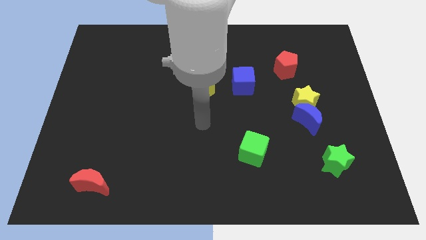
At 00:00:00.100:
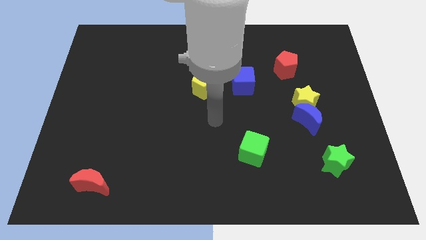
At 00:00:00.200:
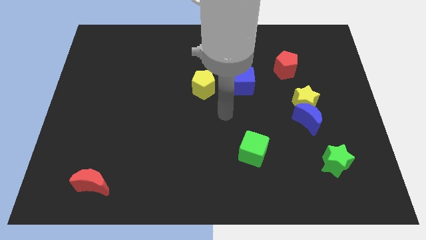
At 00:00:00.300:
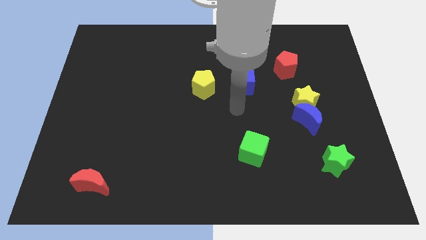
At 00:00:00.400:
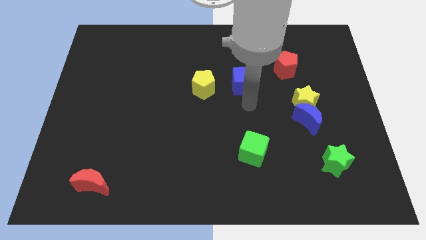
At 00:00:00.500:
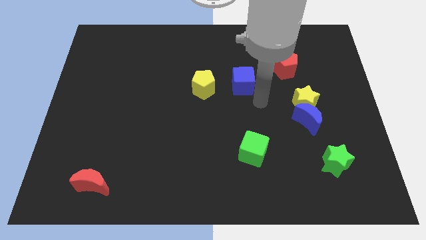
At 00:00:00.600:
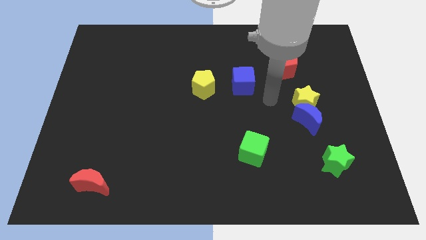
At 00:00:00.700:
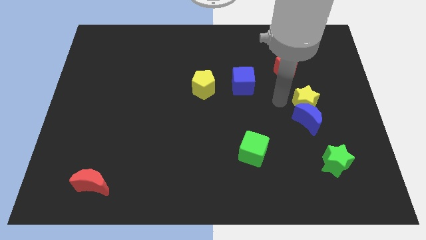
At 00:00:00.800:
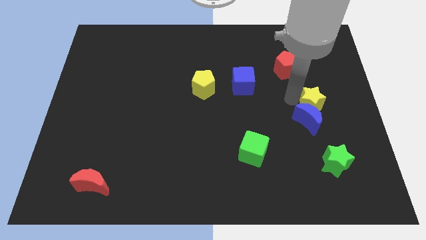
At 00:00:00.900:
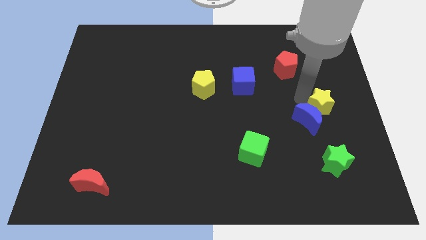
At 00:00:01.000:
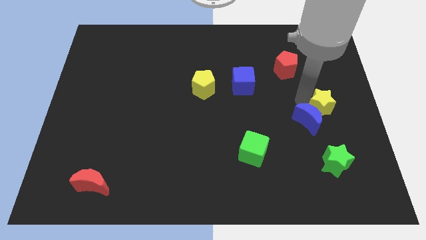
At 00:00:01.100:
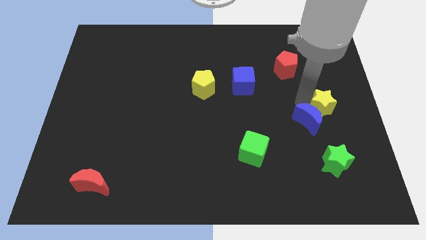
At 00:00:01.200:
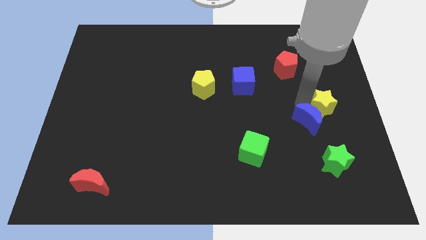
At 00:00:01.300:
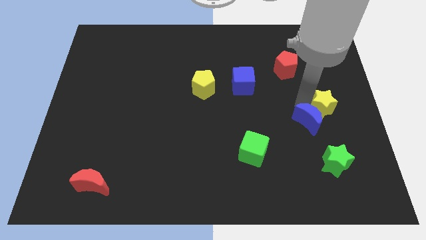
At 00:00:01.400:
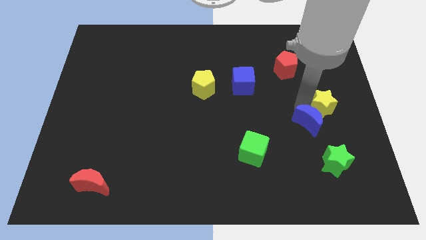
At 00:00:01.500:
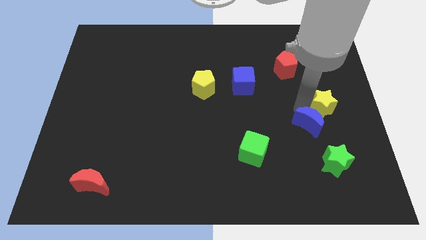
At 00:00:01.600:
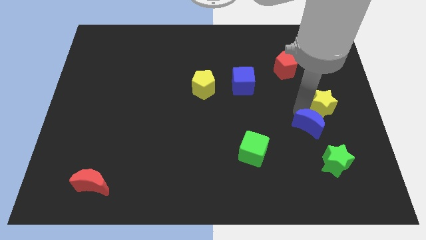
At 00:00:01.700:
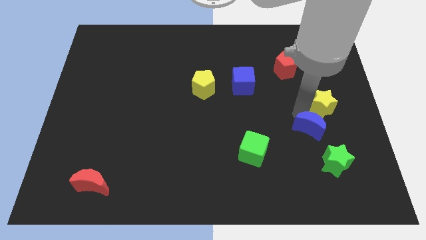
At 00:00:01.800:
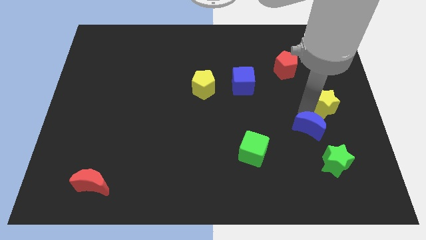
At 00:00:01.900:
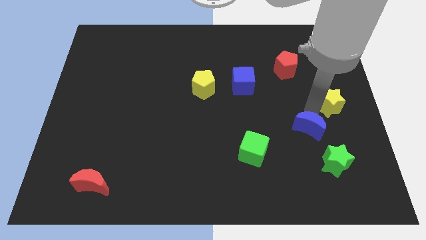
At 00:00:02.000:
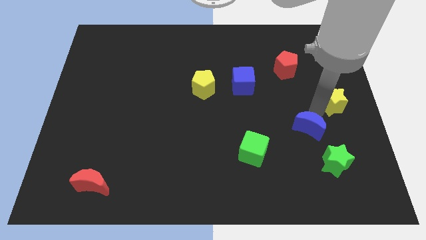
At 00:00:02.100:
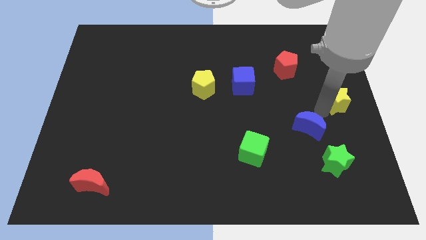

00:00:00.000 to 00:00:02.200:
pull the blue moon apart from the yellow star

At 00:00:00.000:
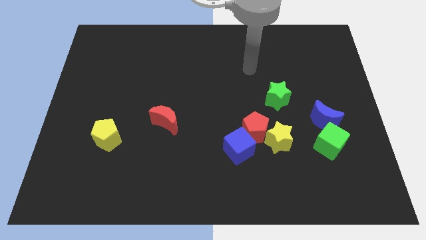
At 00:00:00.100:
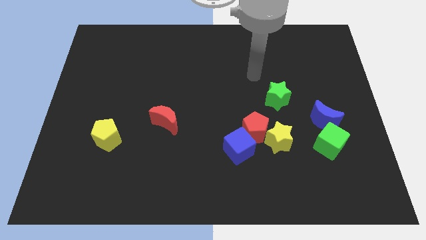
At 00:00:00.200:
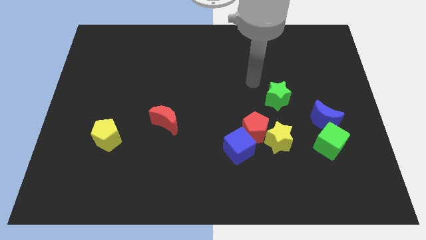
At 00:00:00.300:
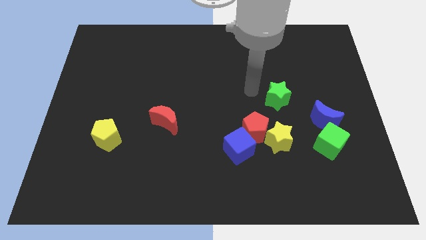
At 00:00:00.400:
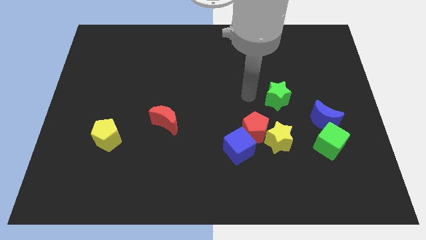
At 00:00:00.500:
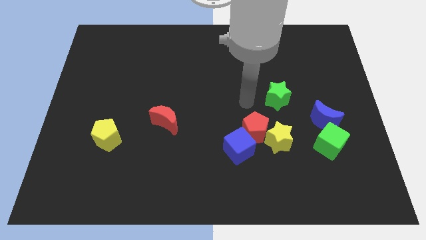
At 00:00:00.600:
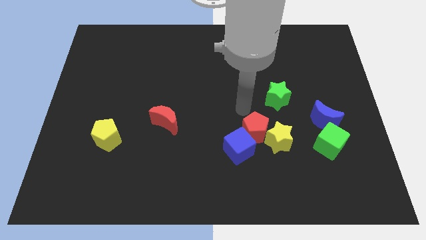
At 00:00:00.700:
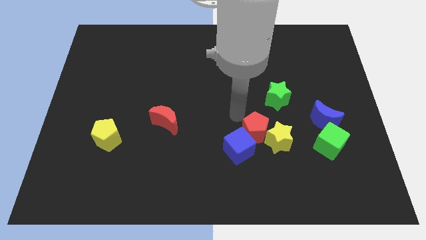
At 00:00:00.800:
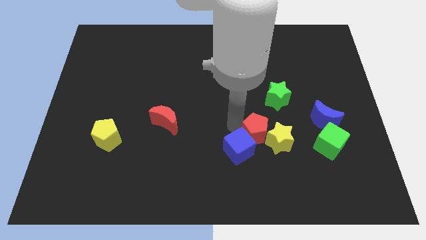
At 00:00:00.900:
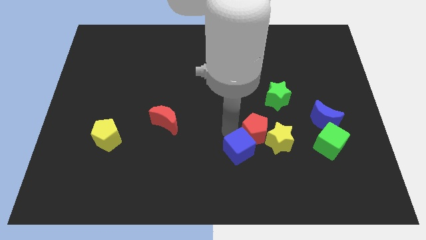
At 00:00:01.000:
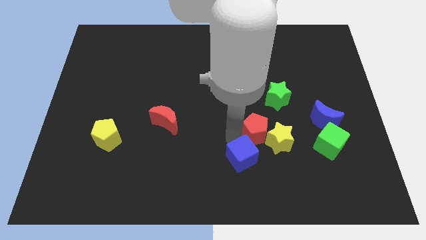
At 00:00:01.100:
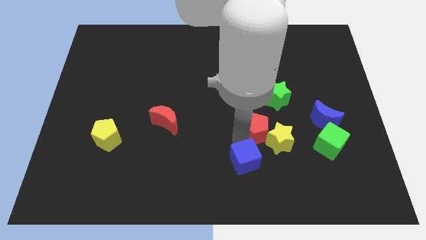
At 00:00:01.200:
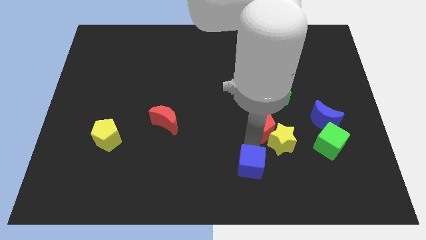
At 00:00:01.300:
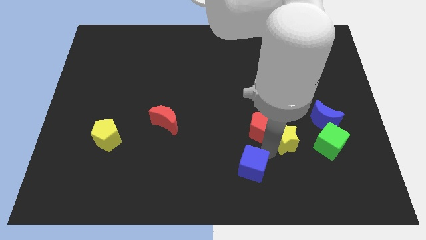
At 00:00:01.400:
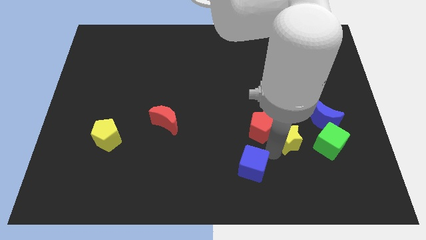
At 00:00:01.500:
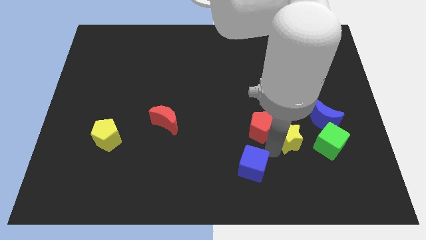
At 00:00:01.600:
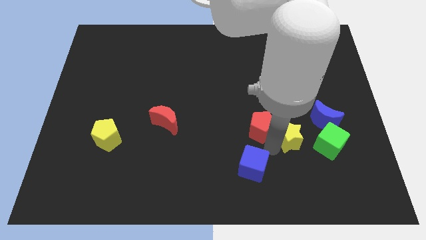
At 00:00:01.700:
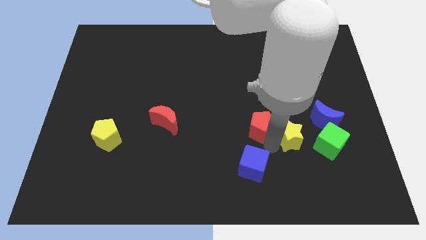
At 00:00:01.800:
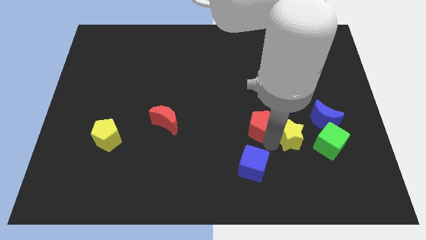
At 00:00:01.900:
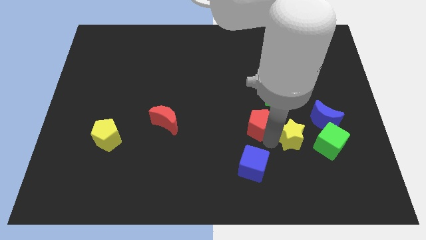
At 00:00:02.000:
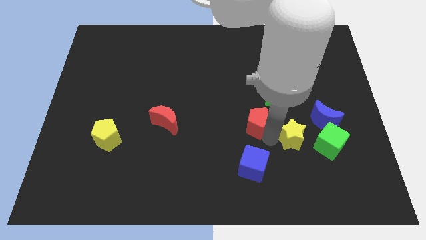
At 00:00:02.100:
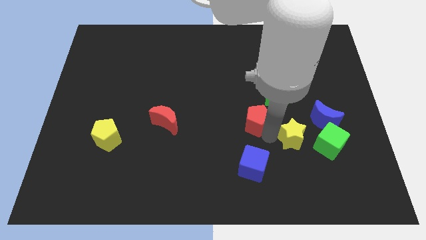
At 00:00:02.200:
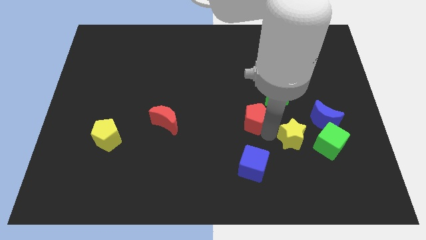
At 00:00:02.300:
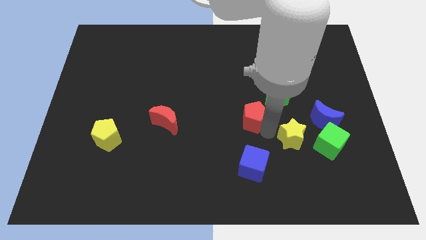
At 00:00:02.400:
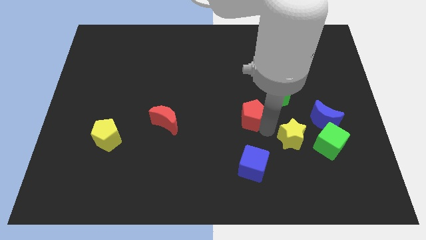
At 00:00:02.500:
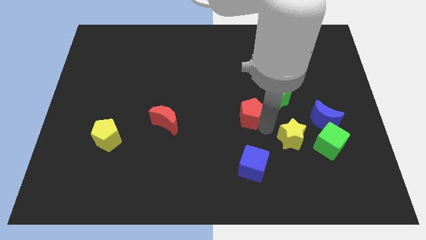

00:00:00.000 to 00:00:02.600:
pull the red pentagon apart from the yellow star and blue cube

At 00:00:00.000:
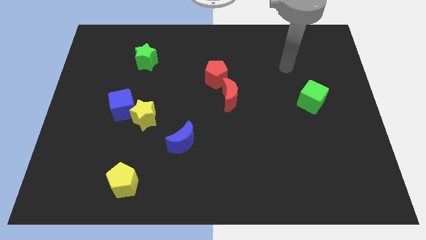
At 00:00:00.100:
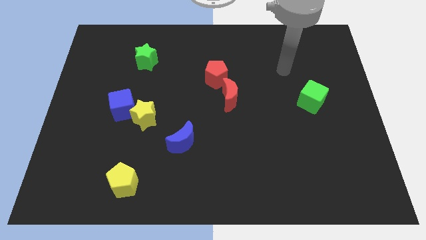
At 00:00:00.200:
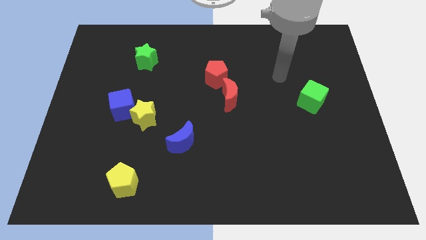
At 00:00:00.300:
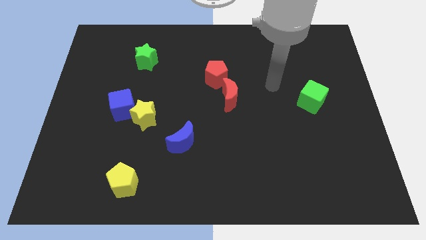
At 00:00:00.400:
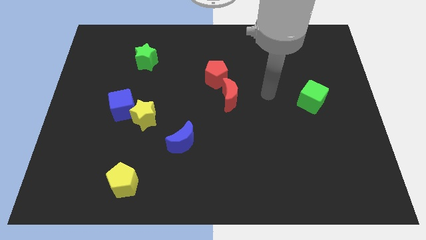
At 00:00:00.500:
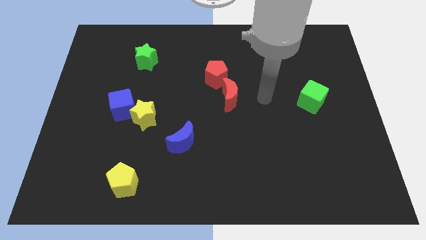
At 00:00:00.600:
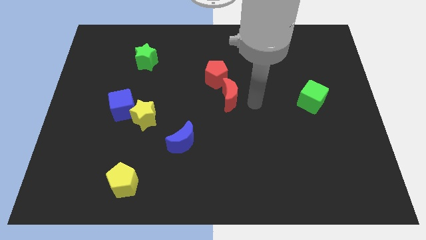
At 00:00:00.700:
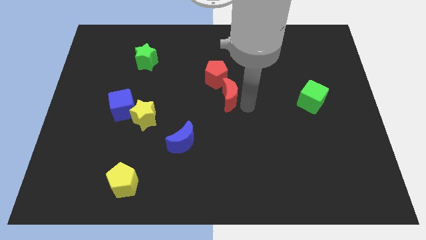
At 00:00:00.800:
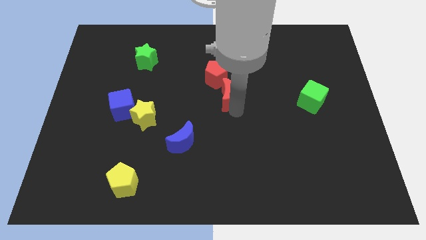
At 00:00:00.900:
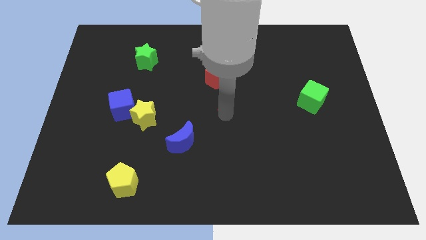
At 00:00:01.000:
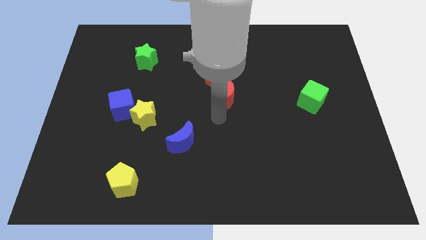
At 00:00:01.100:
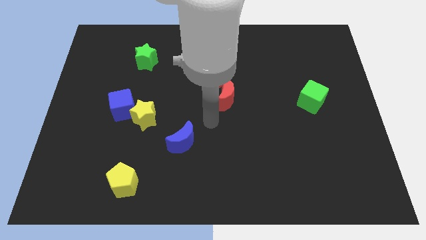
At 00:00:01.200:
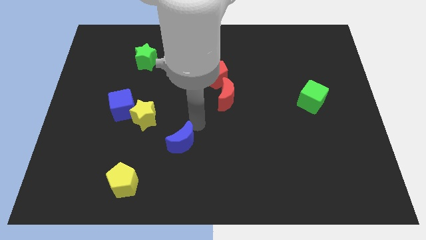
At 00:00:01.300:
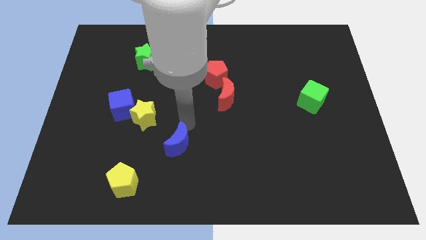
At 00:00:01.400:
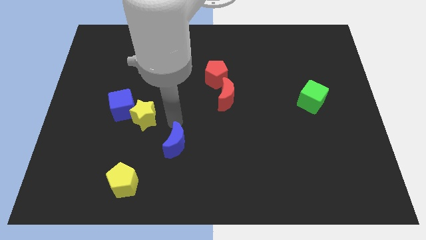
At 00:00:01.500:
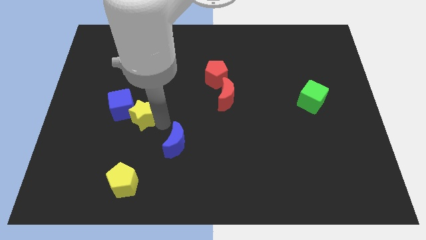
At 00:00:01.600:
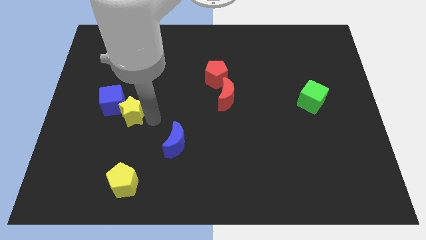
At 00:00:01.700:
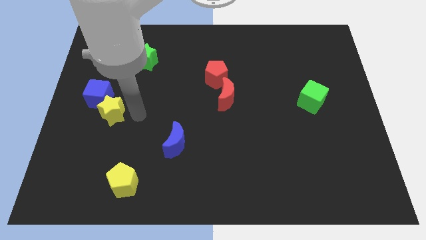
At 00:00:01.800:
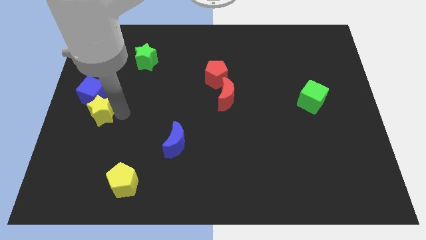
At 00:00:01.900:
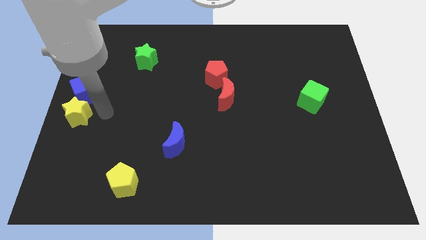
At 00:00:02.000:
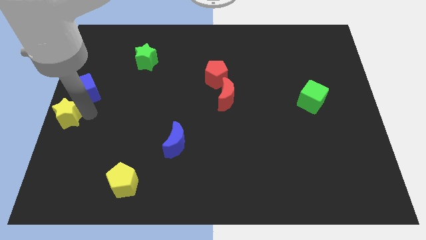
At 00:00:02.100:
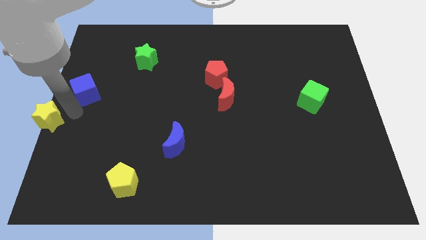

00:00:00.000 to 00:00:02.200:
separate the blue cube from the yellow star

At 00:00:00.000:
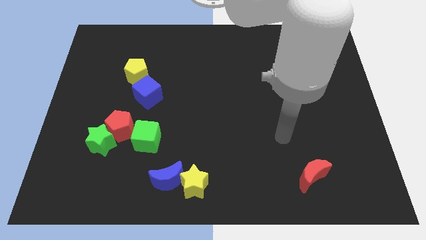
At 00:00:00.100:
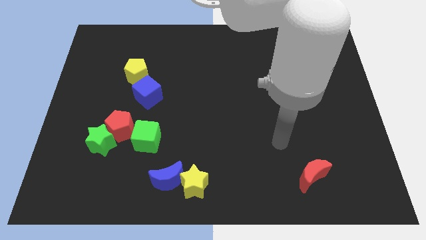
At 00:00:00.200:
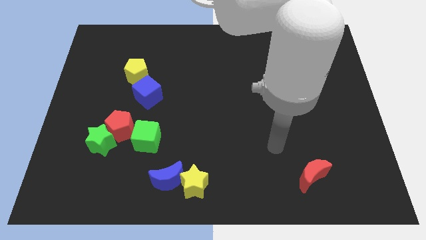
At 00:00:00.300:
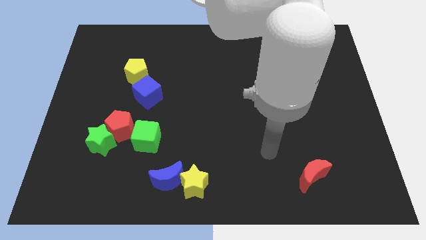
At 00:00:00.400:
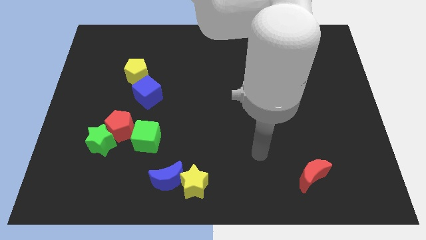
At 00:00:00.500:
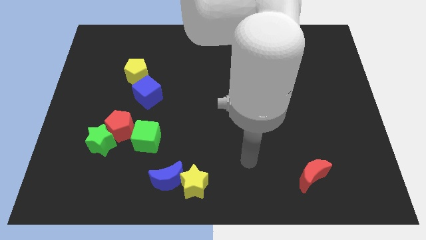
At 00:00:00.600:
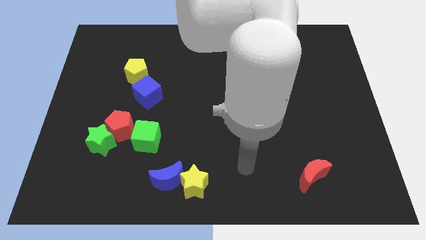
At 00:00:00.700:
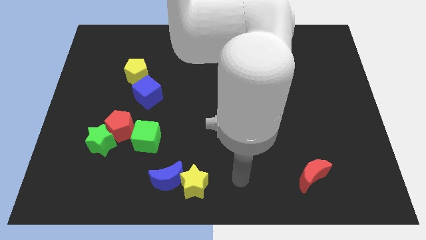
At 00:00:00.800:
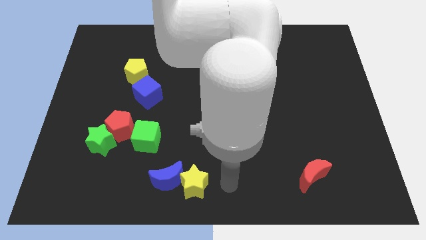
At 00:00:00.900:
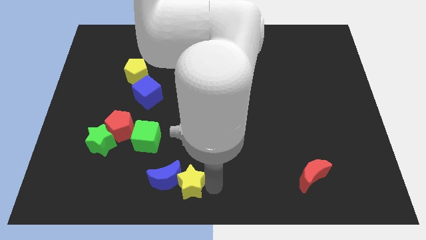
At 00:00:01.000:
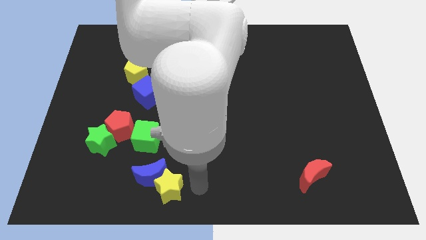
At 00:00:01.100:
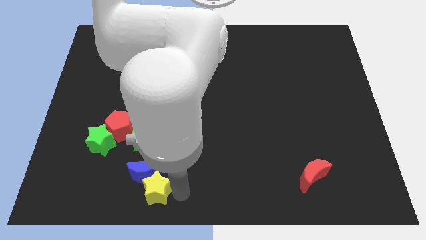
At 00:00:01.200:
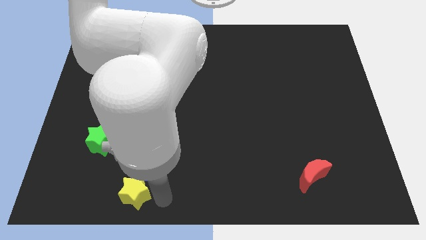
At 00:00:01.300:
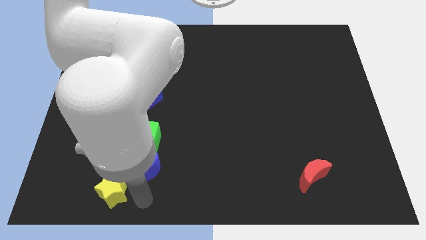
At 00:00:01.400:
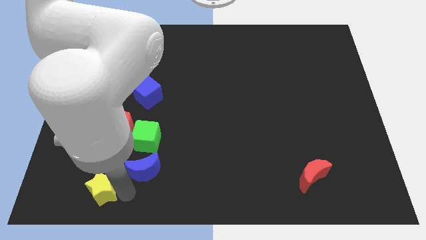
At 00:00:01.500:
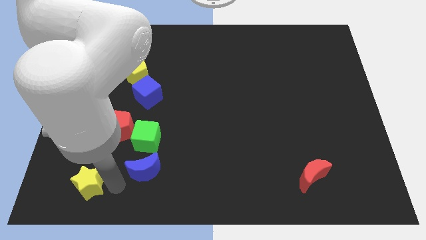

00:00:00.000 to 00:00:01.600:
move the blue moon away from the yellow star

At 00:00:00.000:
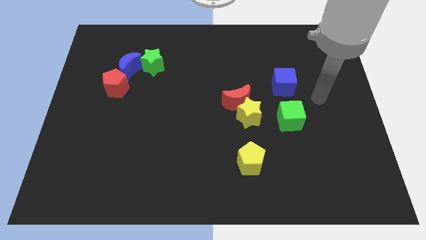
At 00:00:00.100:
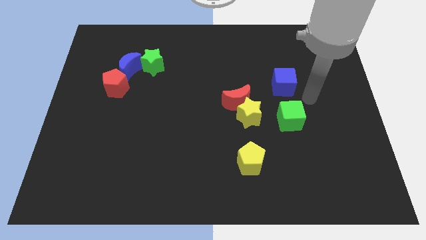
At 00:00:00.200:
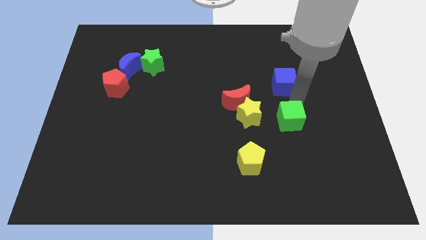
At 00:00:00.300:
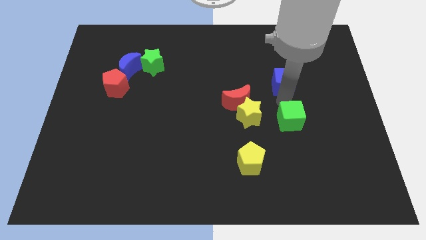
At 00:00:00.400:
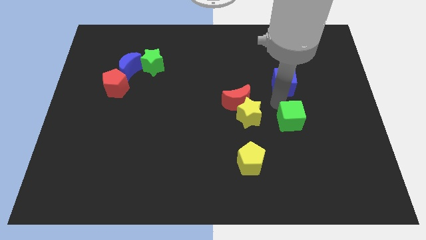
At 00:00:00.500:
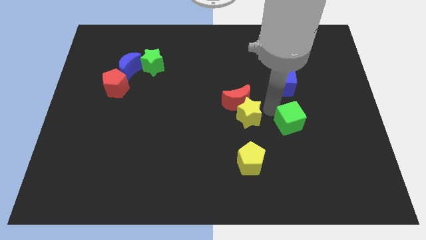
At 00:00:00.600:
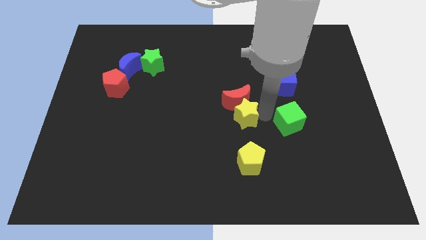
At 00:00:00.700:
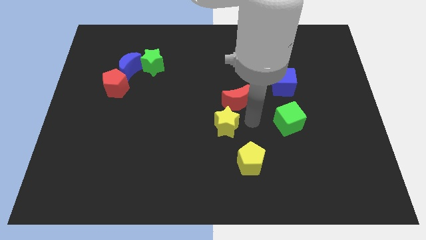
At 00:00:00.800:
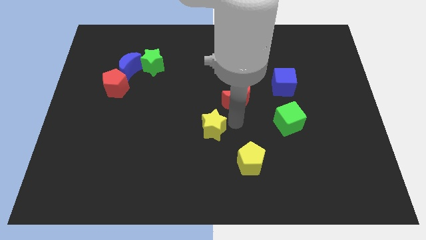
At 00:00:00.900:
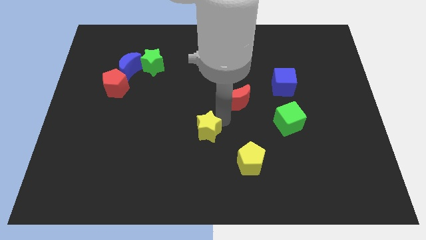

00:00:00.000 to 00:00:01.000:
move the red moon away from the yellow star
